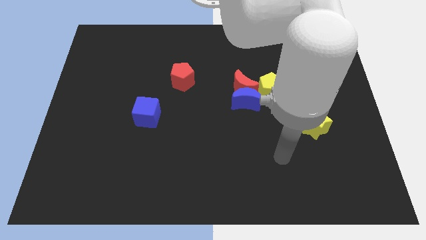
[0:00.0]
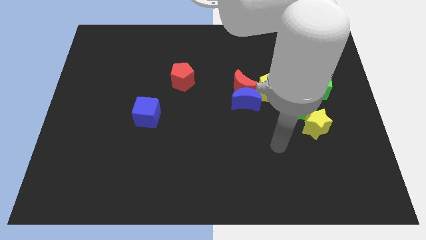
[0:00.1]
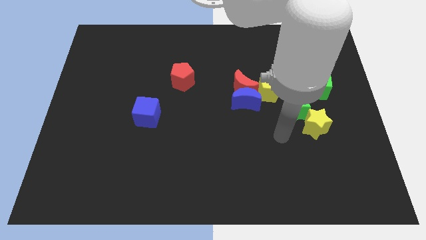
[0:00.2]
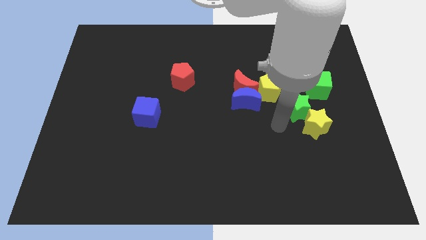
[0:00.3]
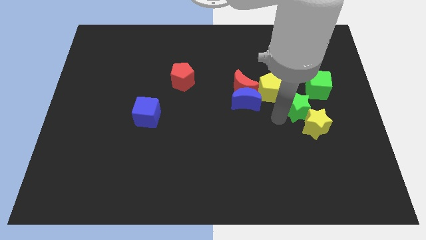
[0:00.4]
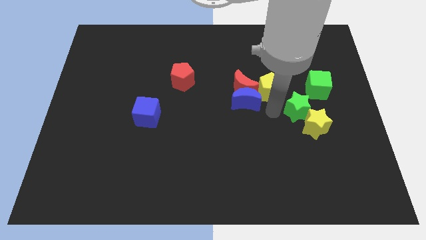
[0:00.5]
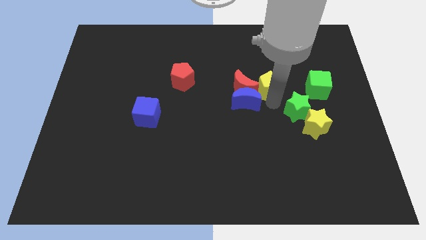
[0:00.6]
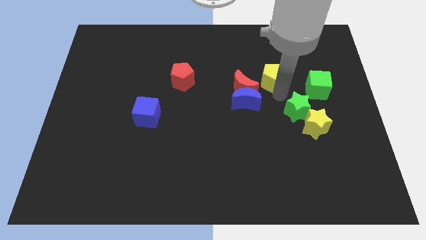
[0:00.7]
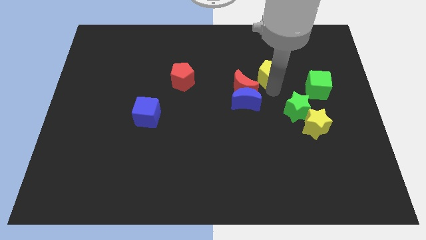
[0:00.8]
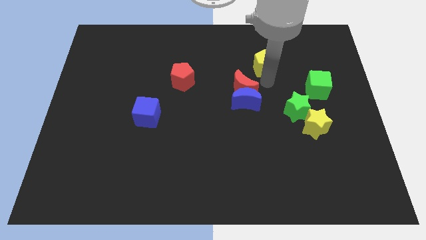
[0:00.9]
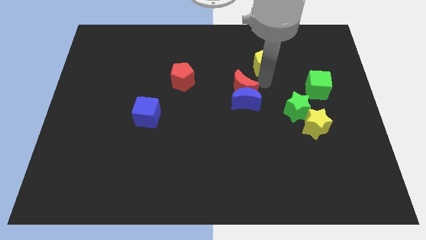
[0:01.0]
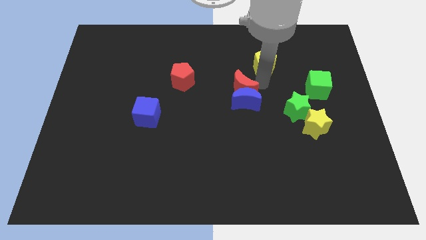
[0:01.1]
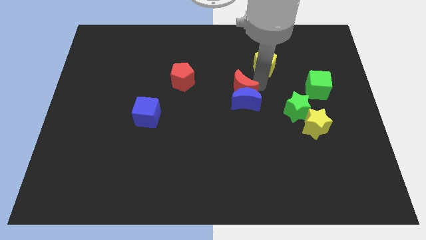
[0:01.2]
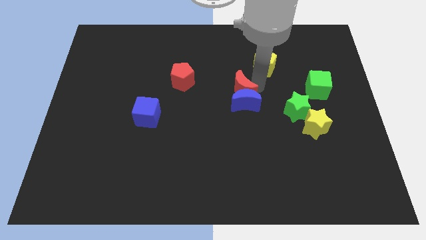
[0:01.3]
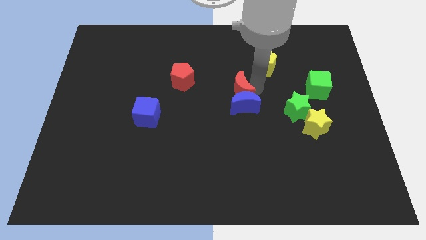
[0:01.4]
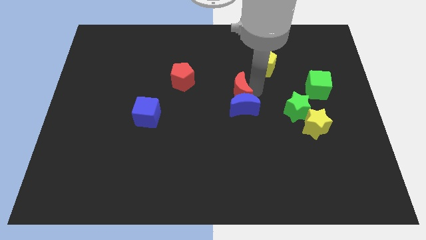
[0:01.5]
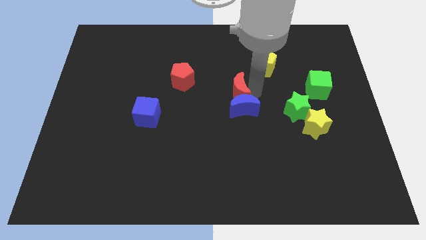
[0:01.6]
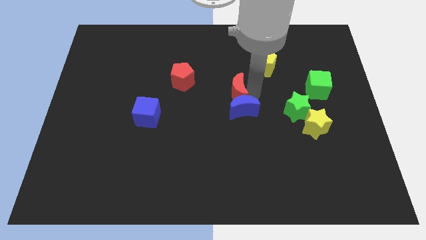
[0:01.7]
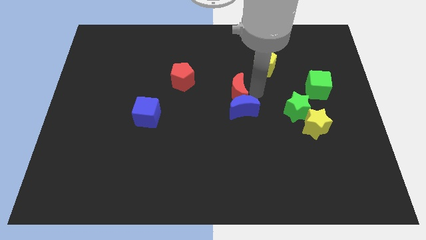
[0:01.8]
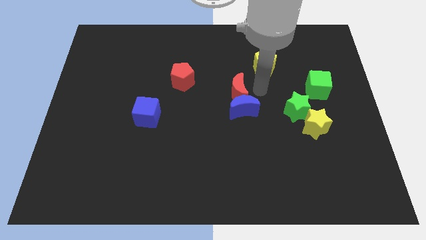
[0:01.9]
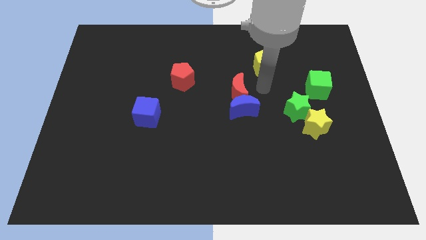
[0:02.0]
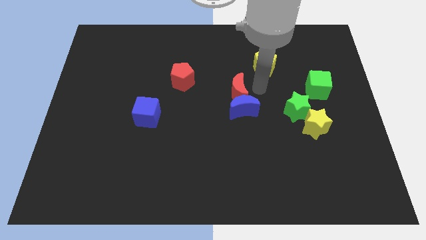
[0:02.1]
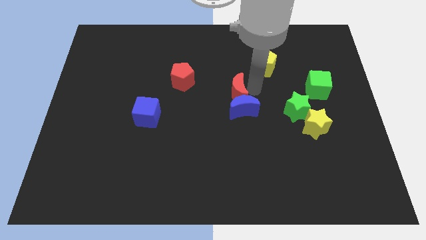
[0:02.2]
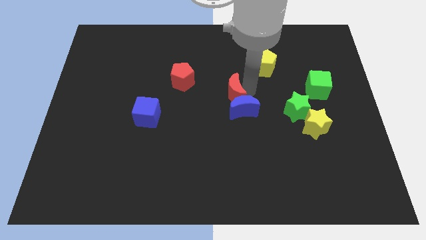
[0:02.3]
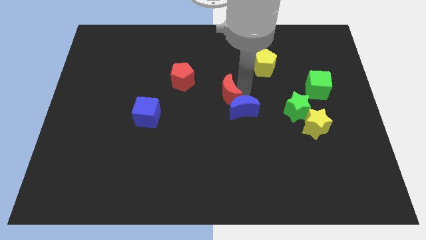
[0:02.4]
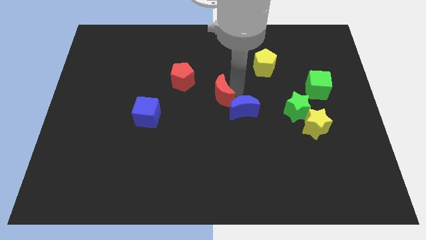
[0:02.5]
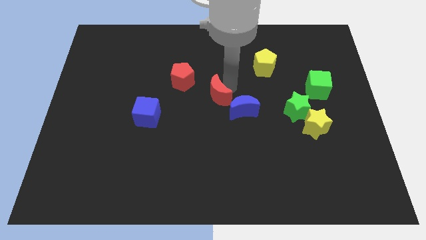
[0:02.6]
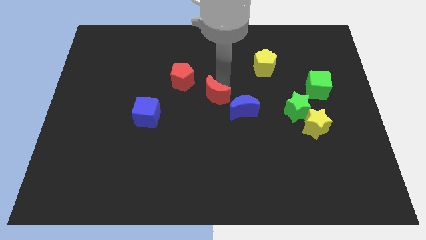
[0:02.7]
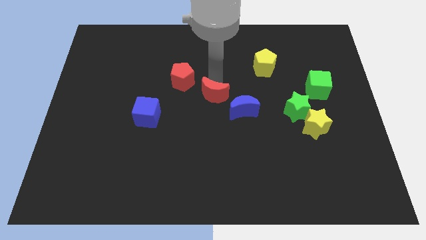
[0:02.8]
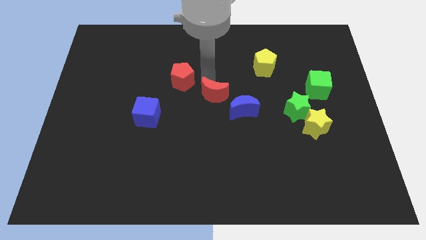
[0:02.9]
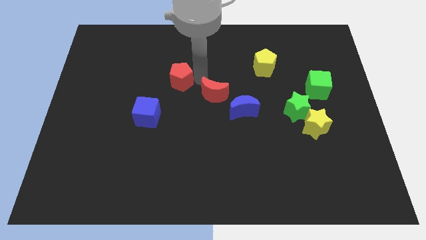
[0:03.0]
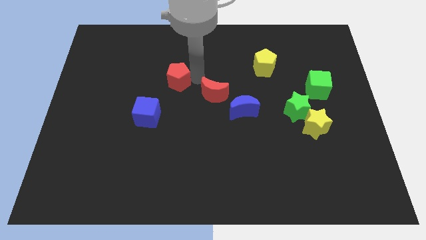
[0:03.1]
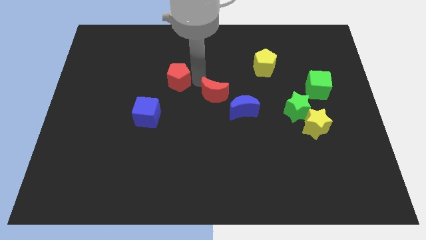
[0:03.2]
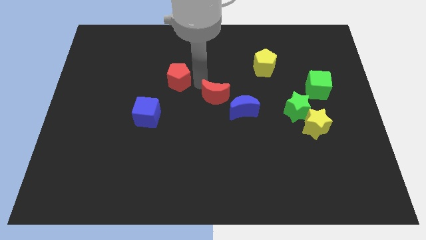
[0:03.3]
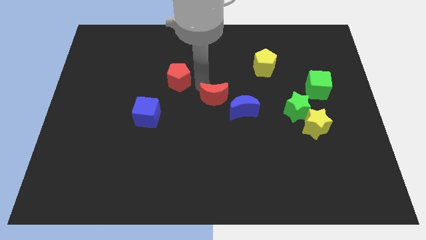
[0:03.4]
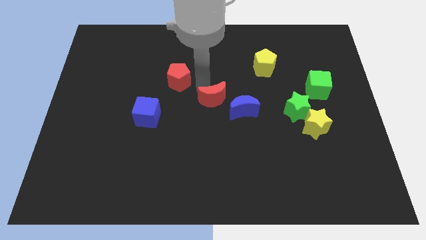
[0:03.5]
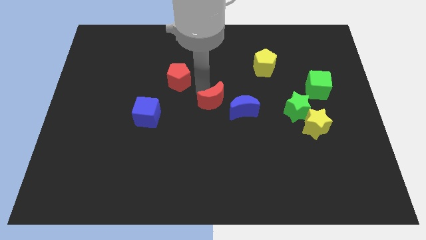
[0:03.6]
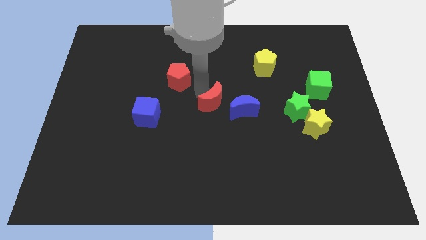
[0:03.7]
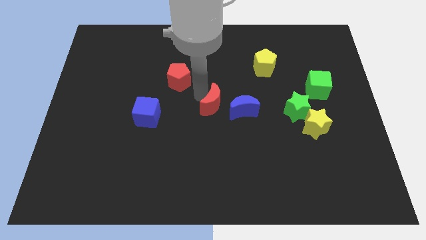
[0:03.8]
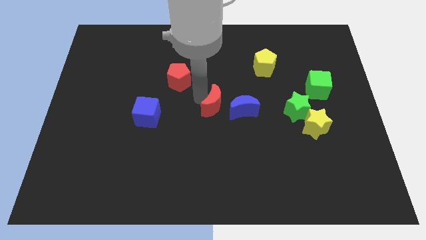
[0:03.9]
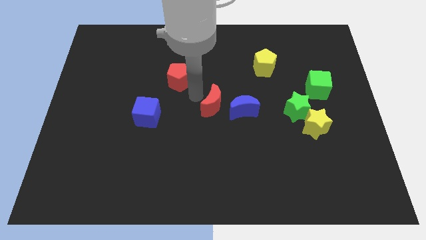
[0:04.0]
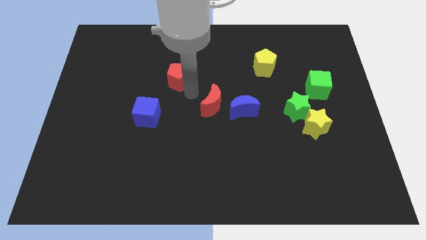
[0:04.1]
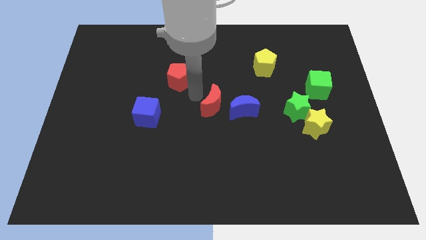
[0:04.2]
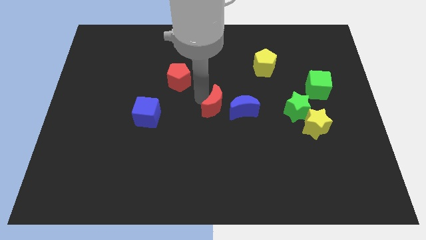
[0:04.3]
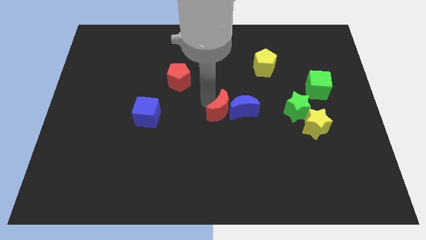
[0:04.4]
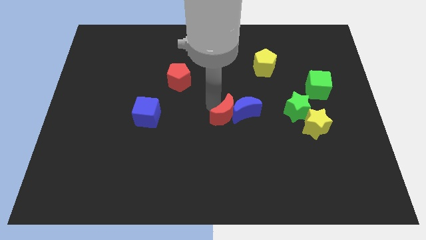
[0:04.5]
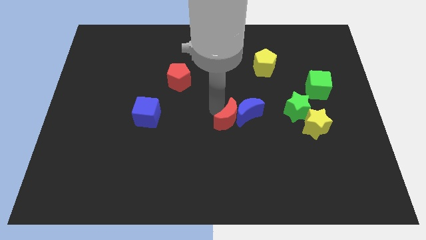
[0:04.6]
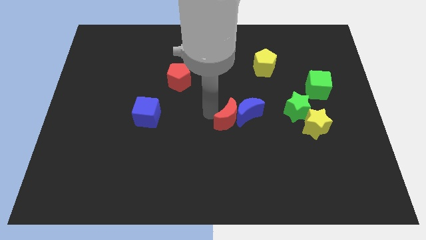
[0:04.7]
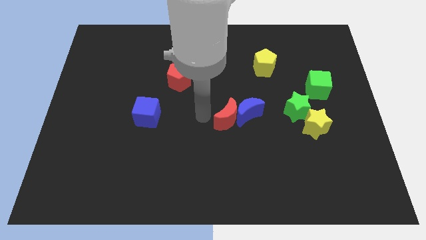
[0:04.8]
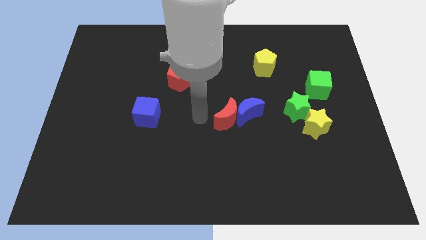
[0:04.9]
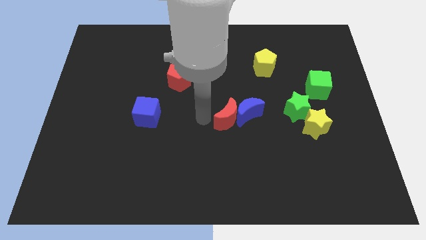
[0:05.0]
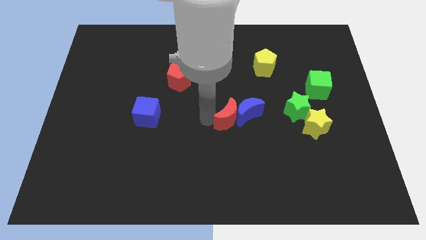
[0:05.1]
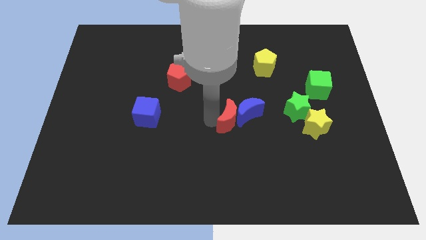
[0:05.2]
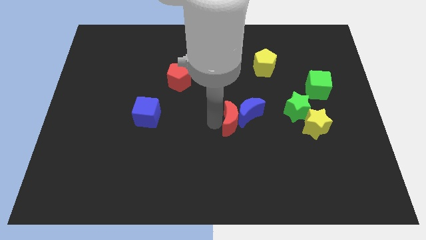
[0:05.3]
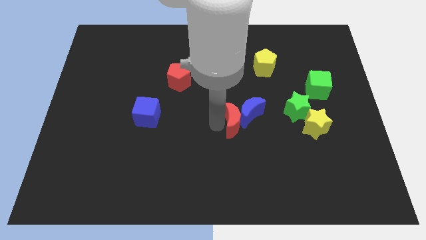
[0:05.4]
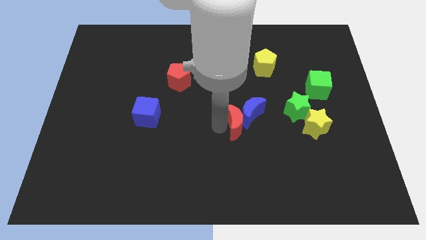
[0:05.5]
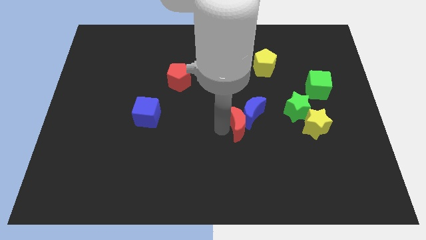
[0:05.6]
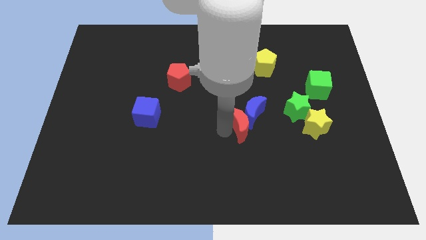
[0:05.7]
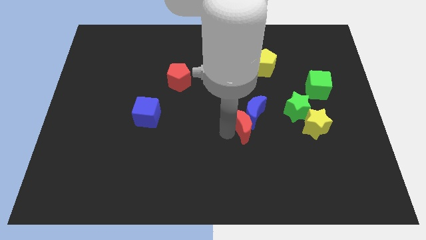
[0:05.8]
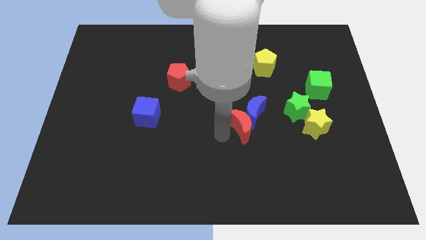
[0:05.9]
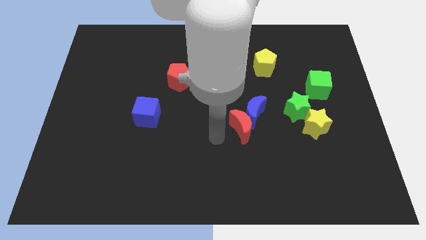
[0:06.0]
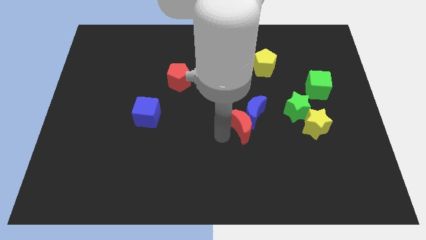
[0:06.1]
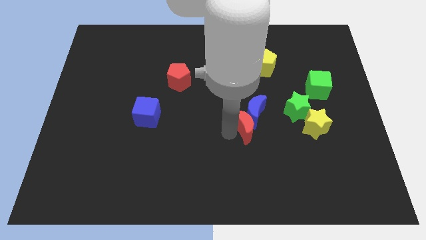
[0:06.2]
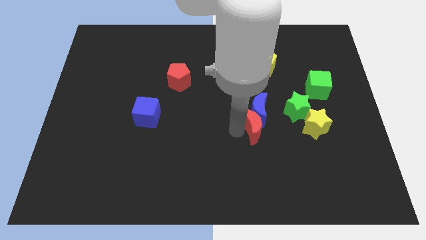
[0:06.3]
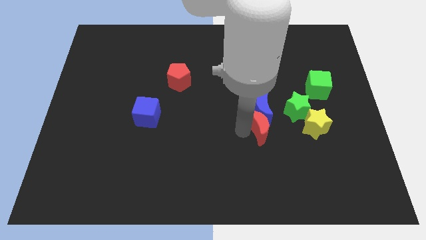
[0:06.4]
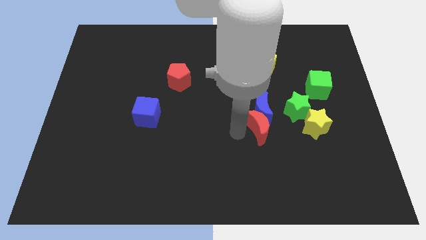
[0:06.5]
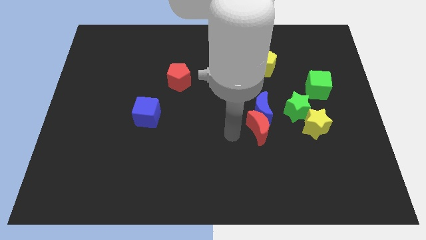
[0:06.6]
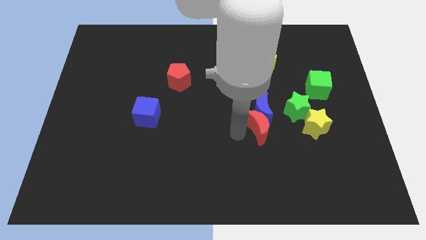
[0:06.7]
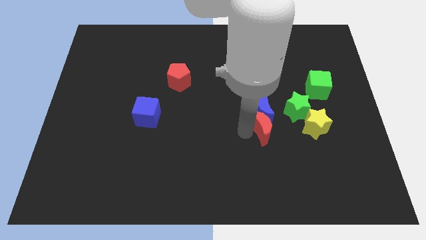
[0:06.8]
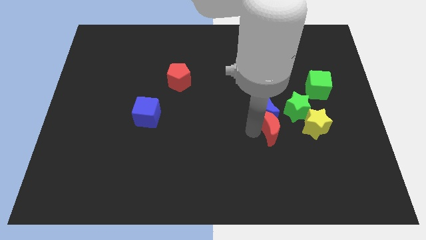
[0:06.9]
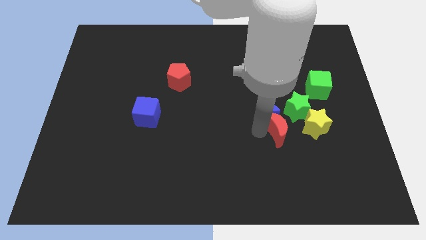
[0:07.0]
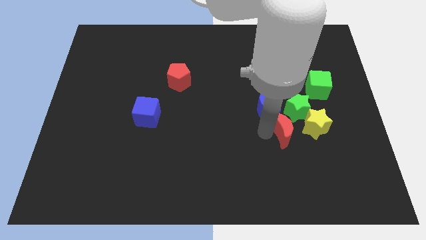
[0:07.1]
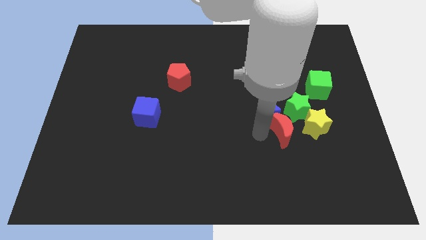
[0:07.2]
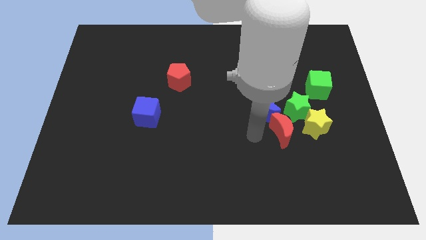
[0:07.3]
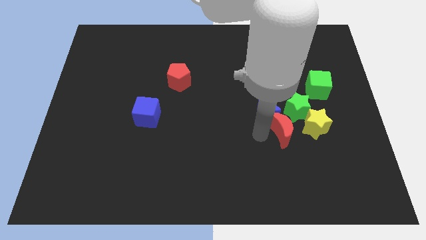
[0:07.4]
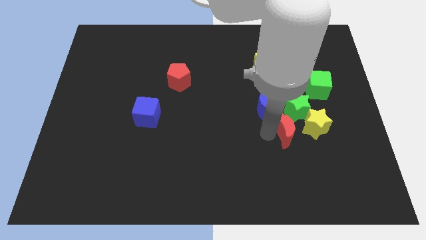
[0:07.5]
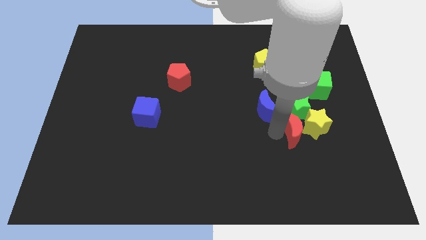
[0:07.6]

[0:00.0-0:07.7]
put the red moon towards the yellow star
